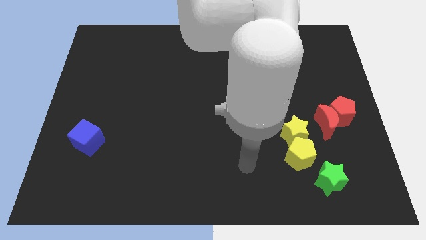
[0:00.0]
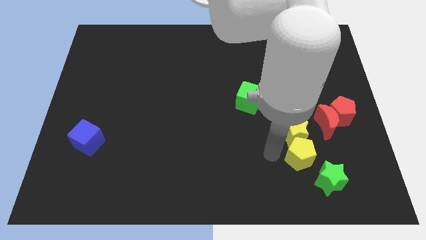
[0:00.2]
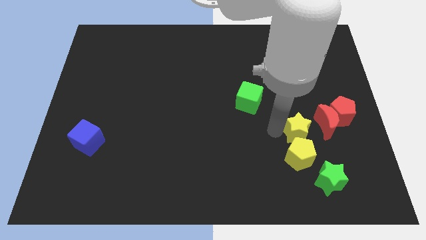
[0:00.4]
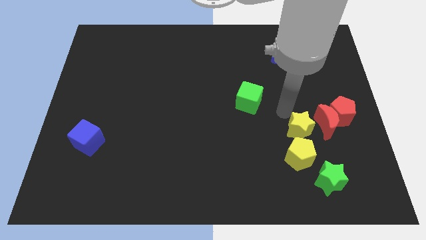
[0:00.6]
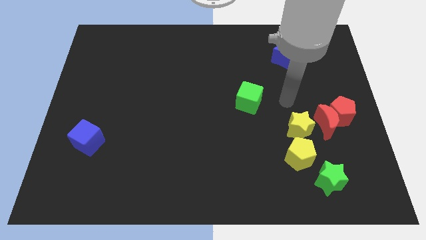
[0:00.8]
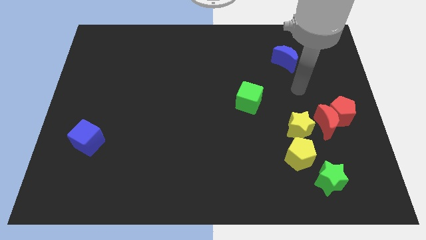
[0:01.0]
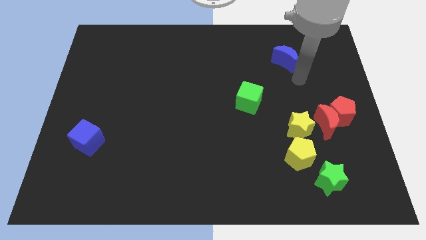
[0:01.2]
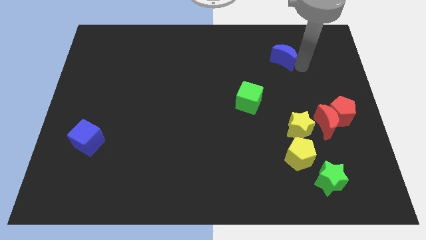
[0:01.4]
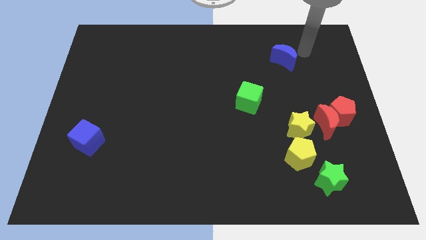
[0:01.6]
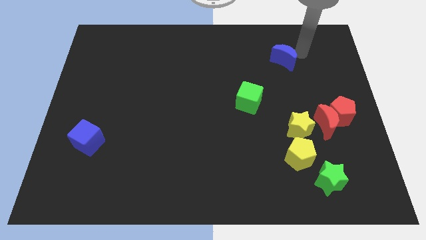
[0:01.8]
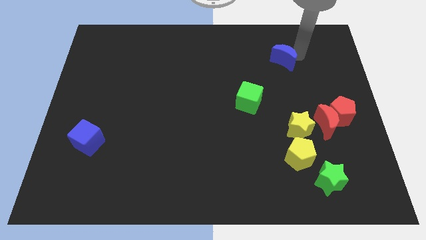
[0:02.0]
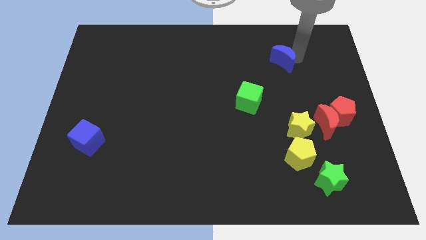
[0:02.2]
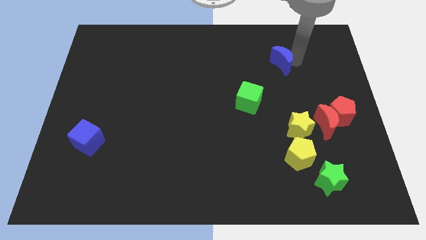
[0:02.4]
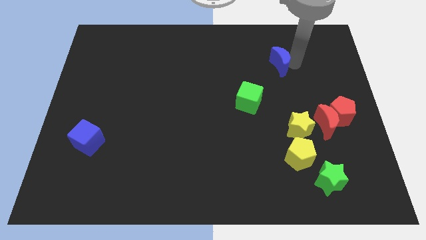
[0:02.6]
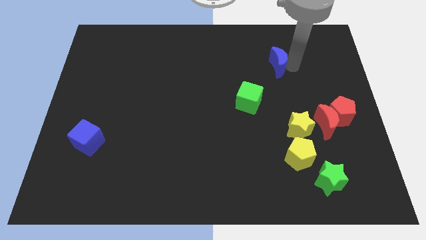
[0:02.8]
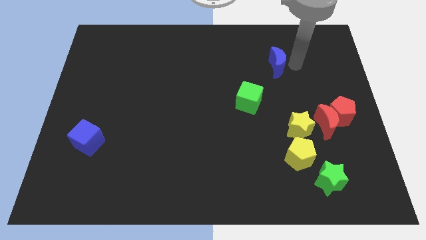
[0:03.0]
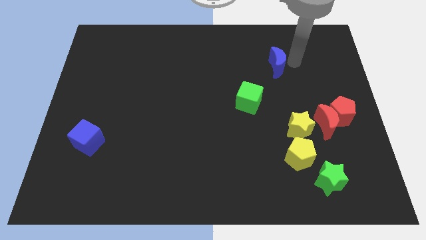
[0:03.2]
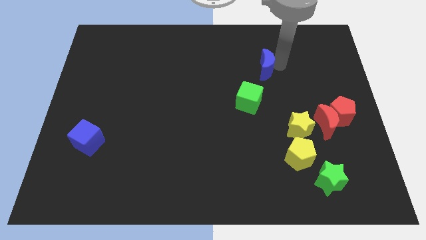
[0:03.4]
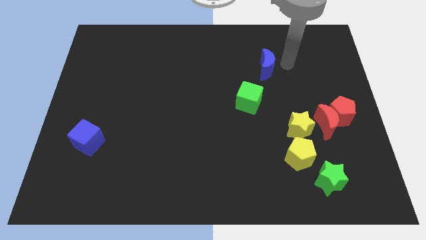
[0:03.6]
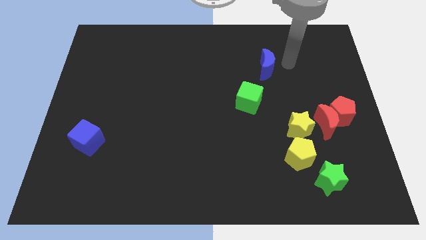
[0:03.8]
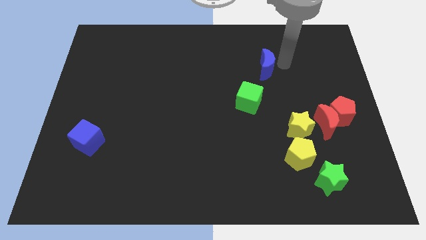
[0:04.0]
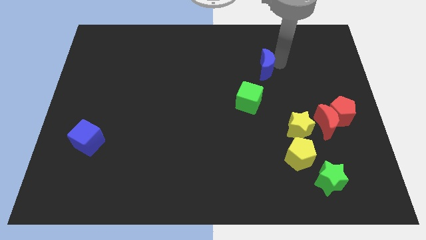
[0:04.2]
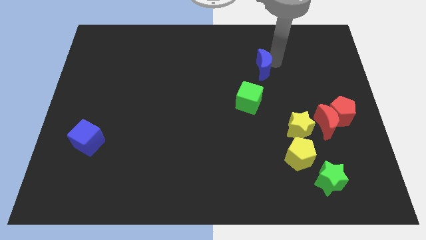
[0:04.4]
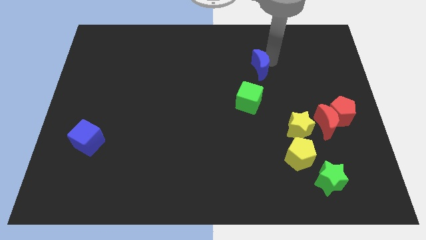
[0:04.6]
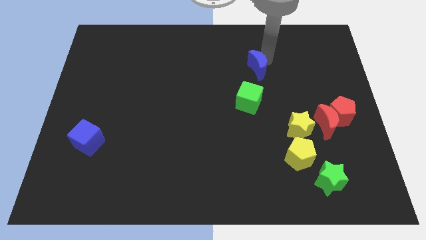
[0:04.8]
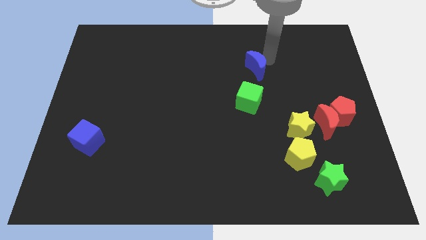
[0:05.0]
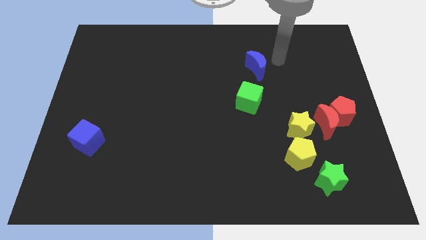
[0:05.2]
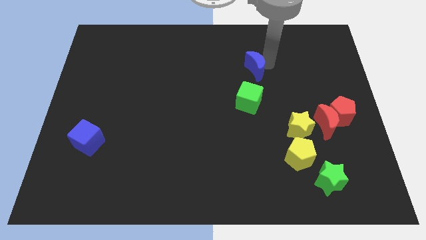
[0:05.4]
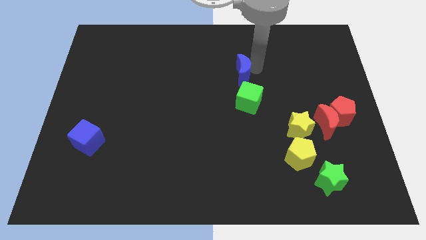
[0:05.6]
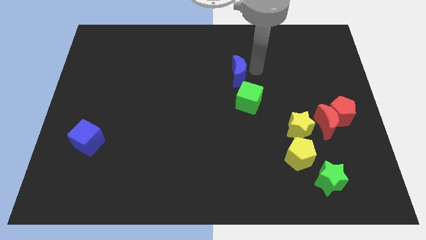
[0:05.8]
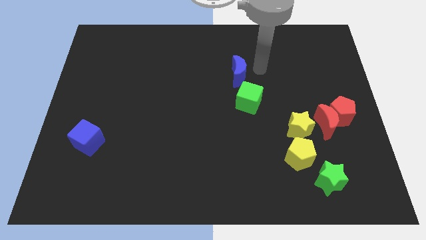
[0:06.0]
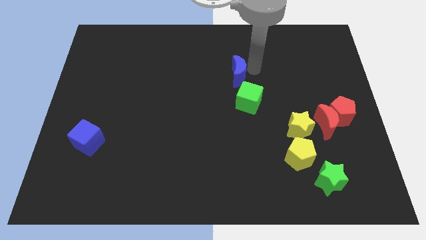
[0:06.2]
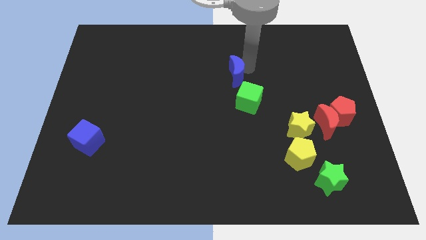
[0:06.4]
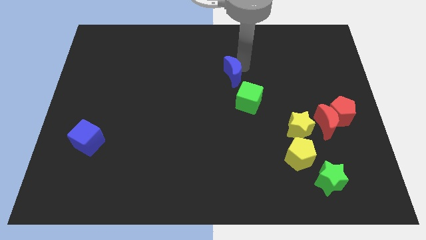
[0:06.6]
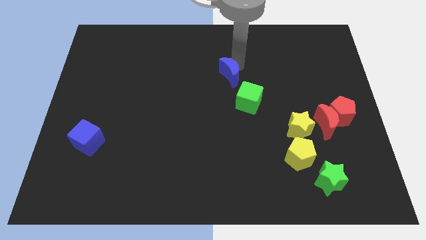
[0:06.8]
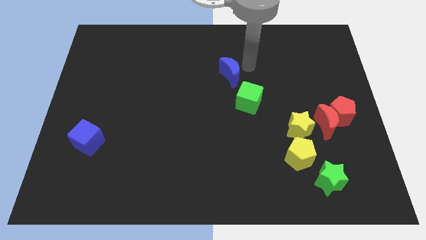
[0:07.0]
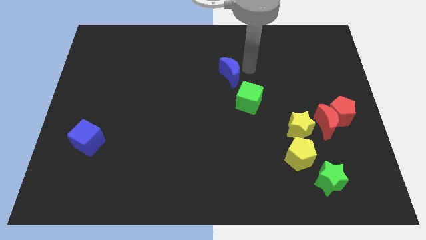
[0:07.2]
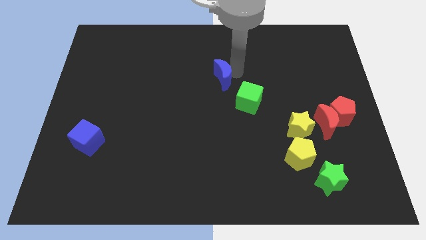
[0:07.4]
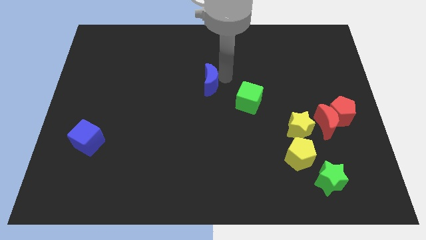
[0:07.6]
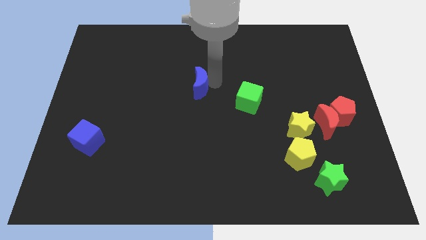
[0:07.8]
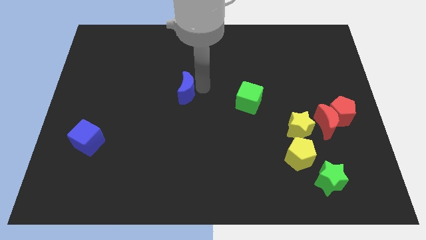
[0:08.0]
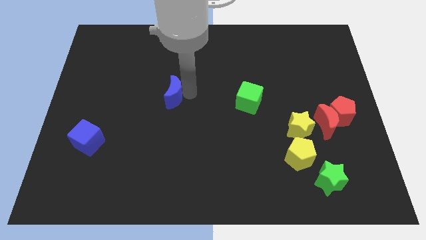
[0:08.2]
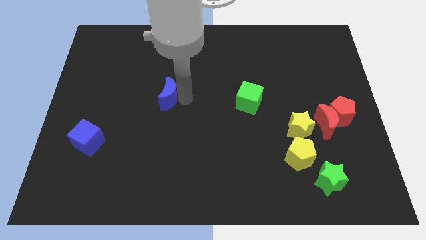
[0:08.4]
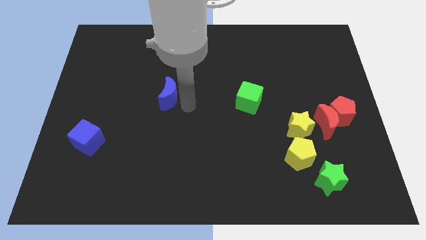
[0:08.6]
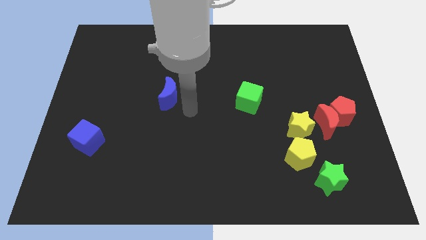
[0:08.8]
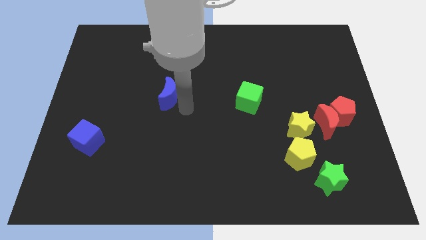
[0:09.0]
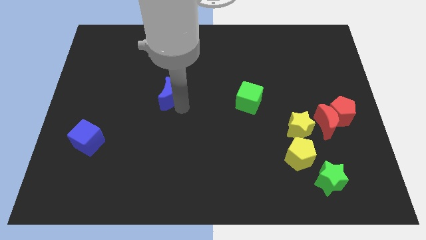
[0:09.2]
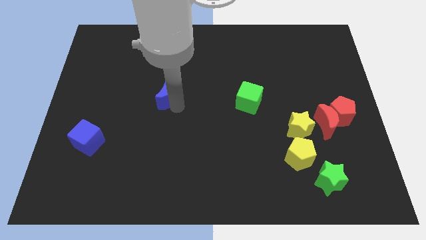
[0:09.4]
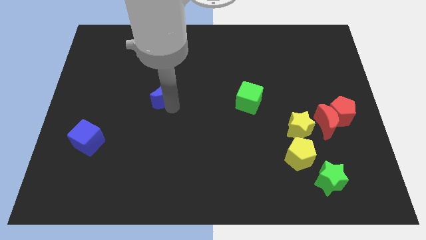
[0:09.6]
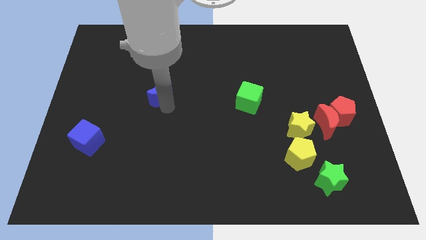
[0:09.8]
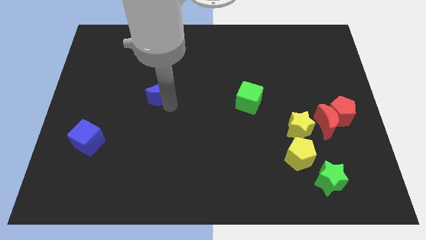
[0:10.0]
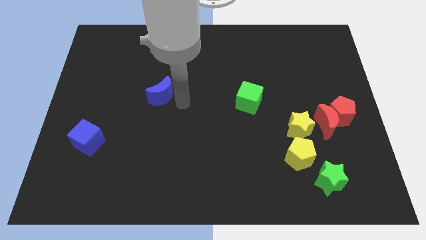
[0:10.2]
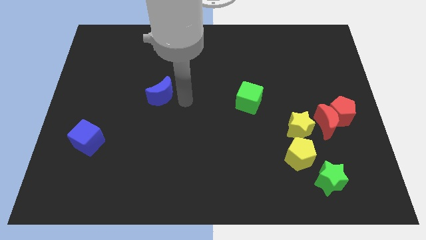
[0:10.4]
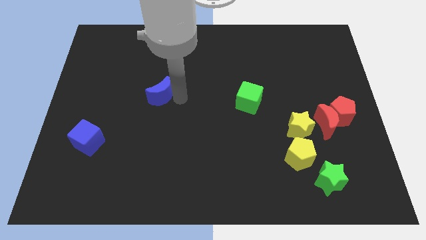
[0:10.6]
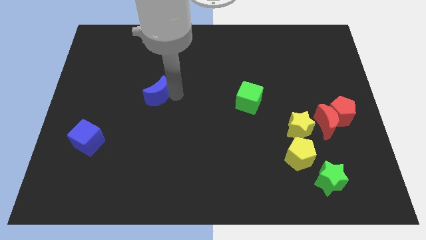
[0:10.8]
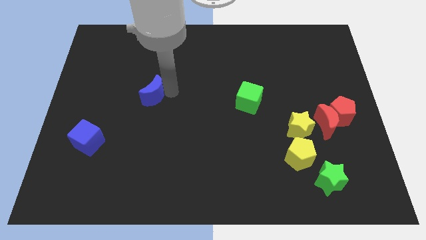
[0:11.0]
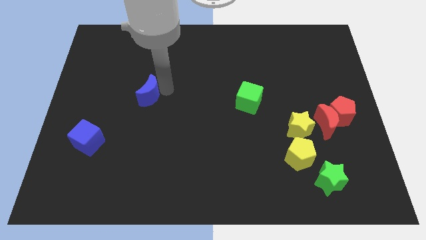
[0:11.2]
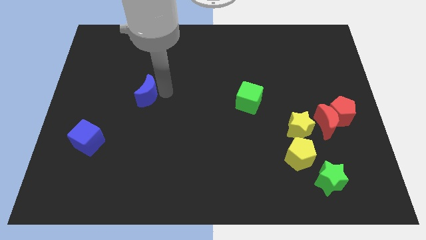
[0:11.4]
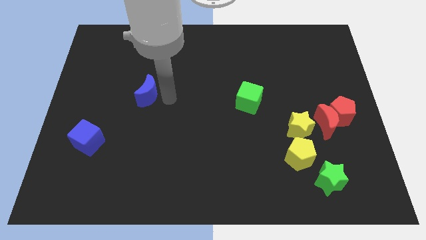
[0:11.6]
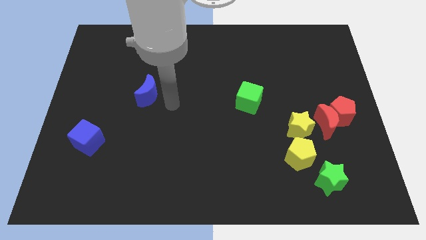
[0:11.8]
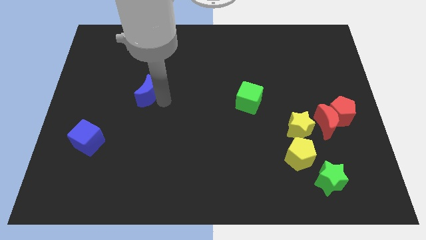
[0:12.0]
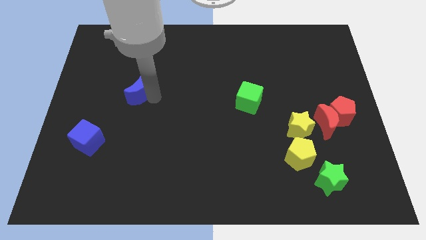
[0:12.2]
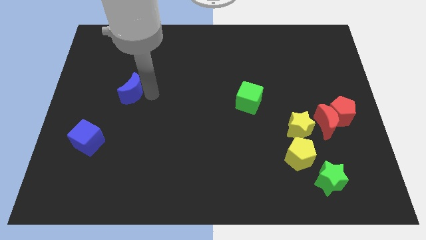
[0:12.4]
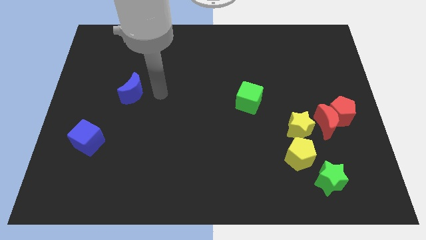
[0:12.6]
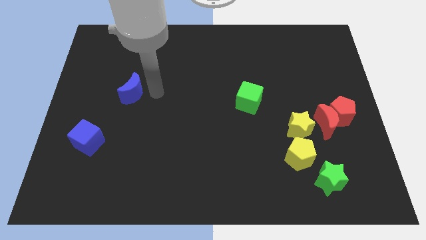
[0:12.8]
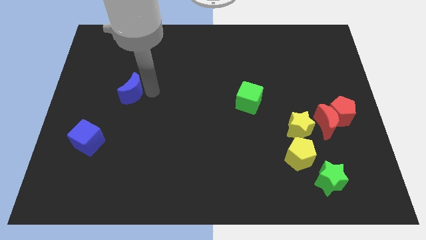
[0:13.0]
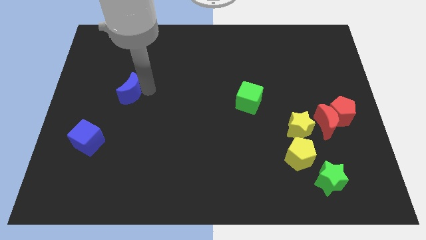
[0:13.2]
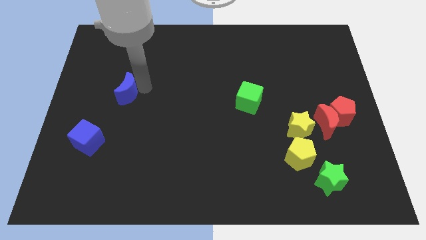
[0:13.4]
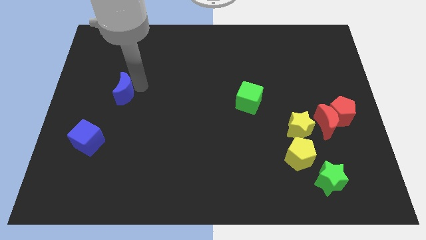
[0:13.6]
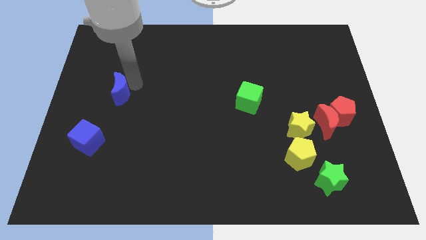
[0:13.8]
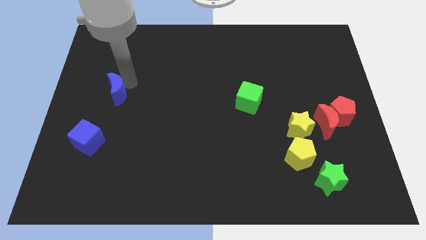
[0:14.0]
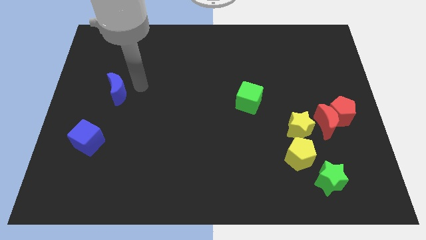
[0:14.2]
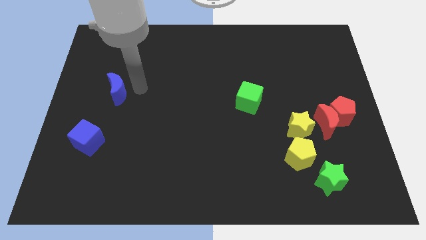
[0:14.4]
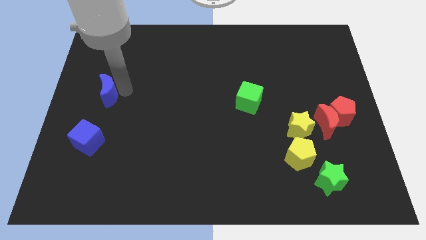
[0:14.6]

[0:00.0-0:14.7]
push the blue moon to the left side of the board
